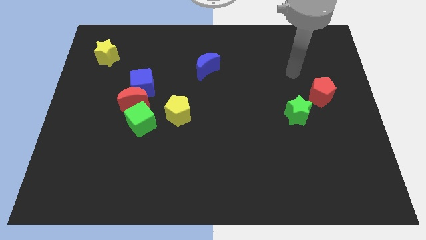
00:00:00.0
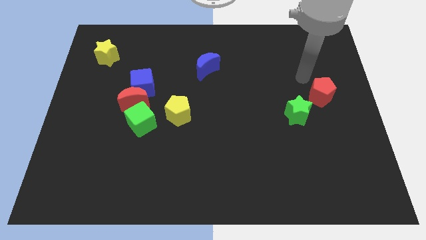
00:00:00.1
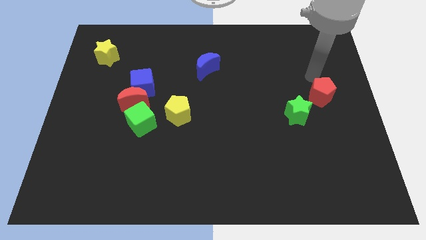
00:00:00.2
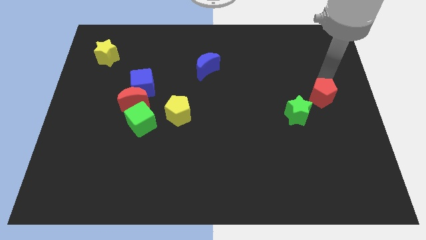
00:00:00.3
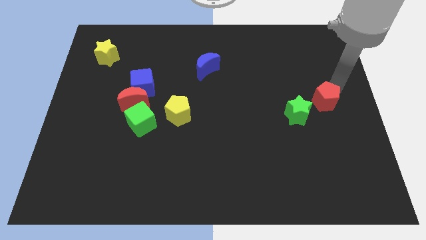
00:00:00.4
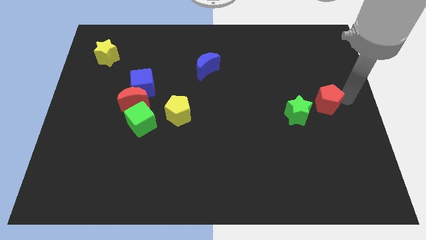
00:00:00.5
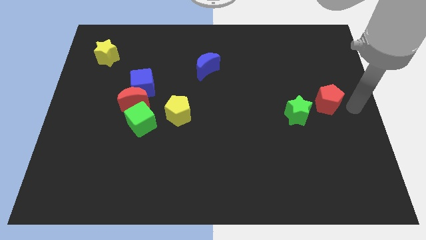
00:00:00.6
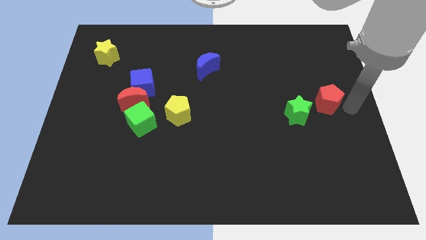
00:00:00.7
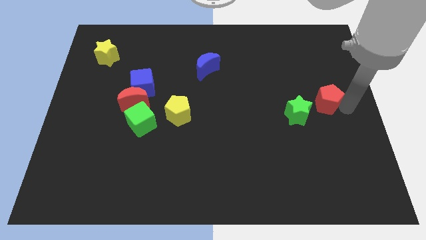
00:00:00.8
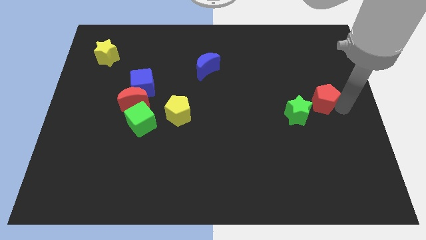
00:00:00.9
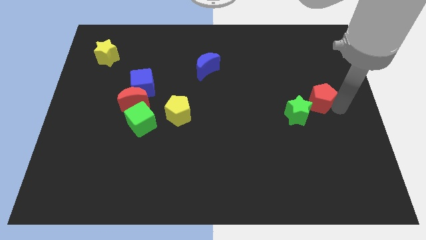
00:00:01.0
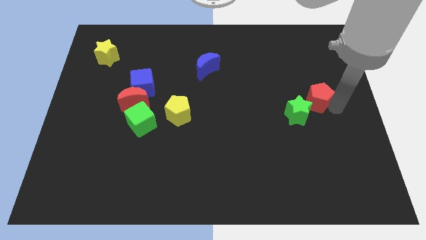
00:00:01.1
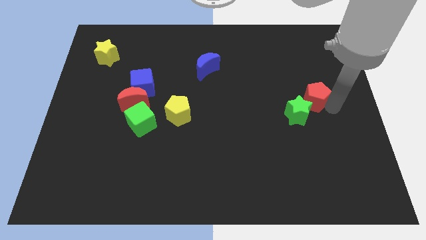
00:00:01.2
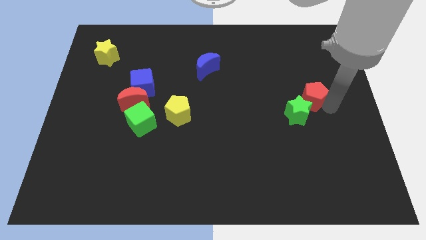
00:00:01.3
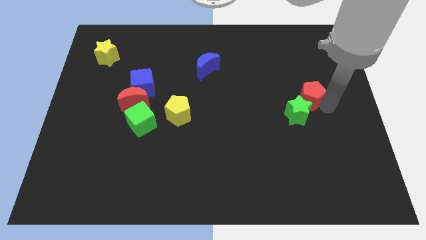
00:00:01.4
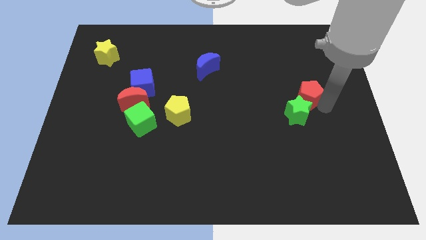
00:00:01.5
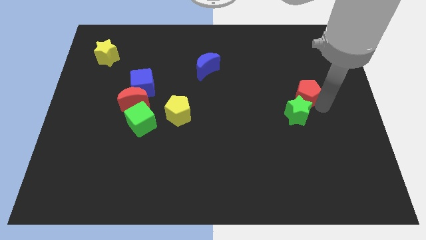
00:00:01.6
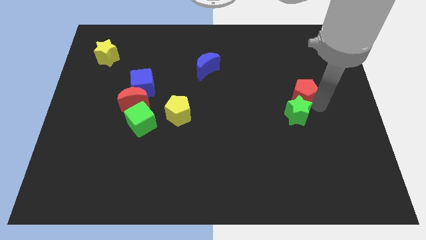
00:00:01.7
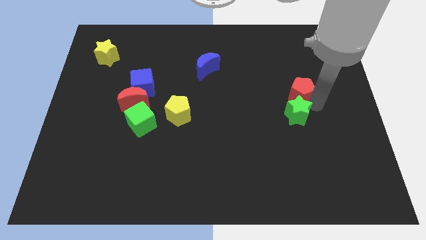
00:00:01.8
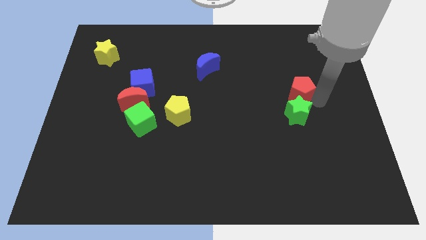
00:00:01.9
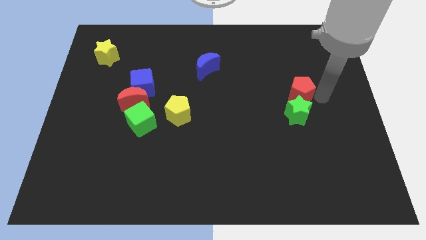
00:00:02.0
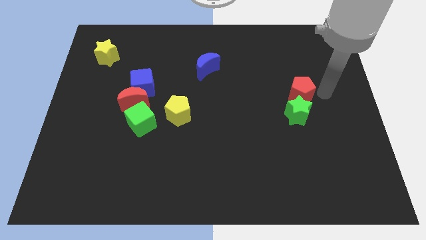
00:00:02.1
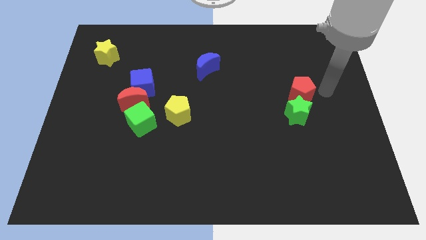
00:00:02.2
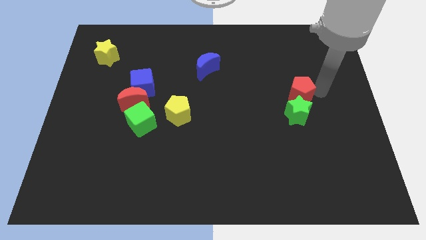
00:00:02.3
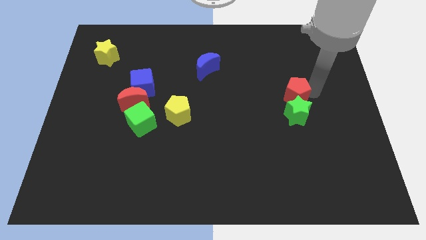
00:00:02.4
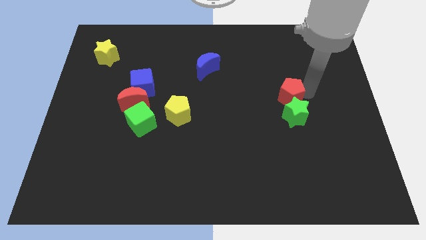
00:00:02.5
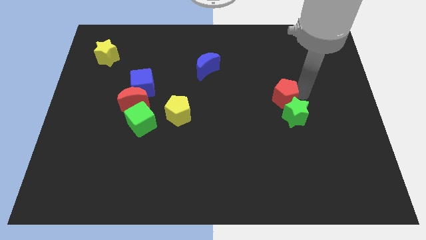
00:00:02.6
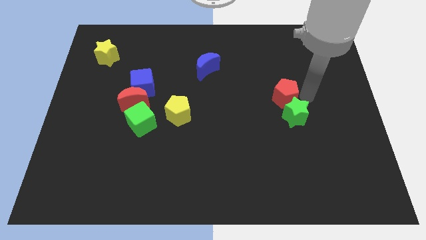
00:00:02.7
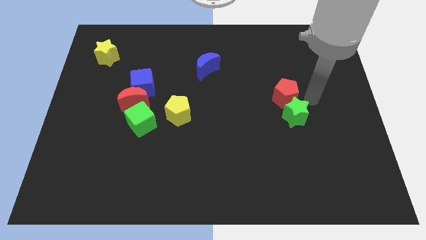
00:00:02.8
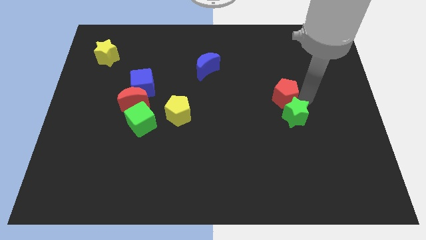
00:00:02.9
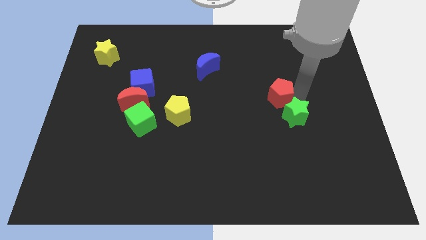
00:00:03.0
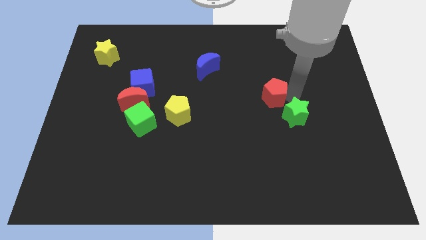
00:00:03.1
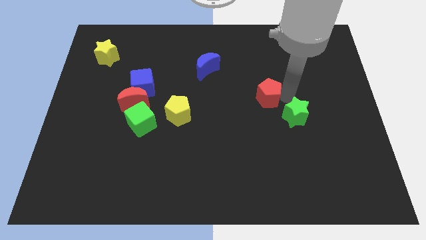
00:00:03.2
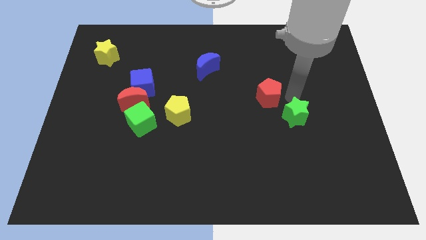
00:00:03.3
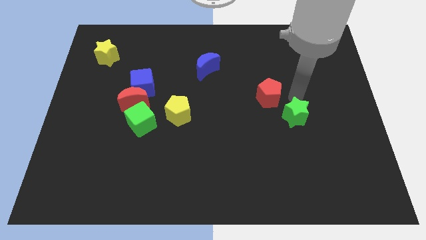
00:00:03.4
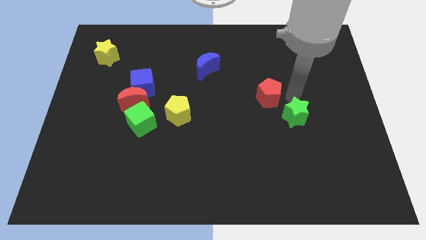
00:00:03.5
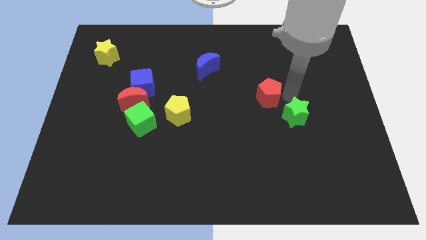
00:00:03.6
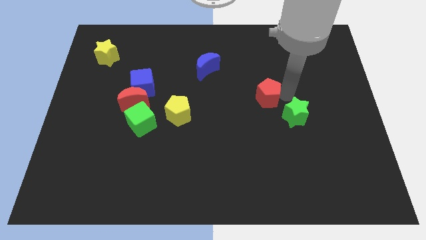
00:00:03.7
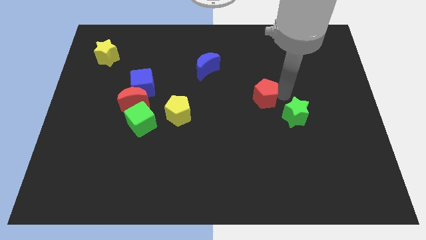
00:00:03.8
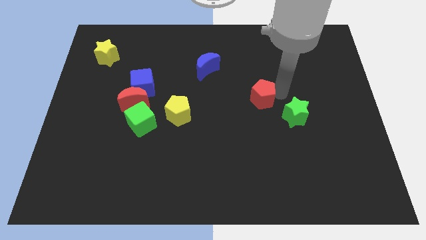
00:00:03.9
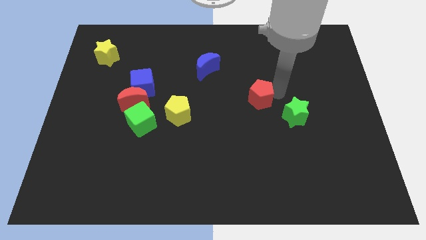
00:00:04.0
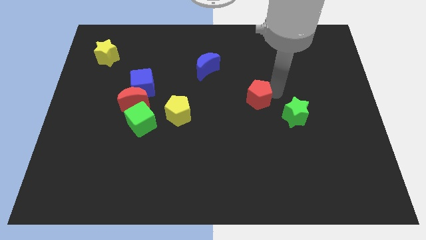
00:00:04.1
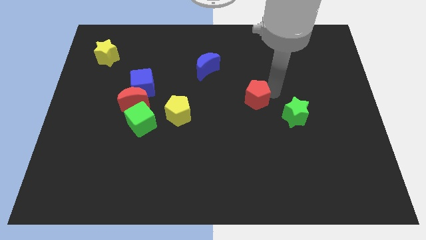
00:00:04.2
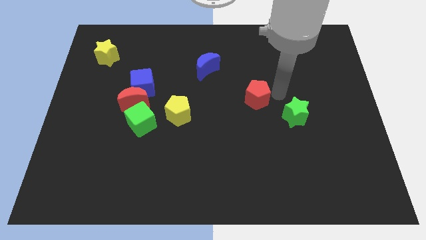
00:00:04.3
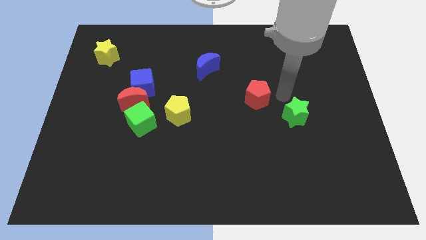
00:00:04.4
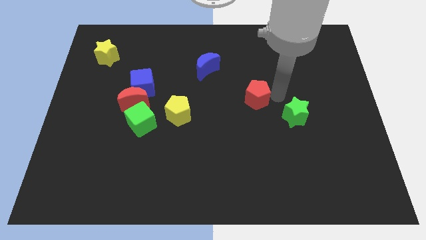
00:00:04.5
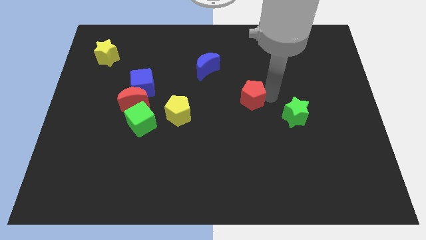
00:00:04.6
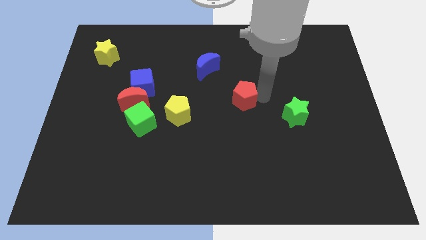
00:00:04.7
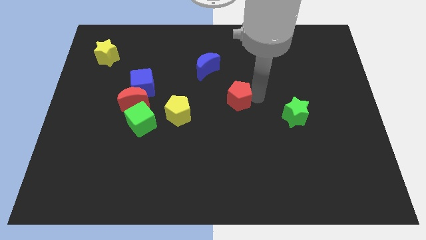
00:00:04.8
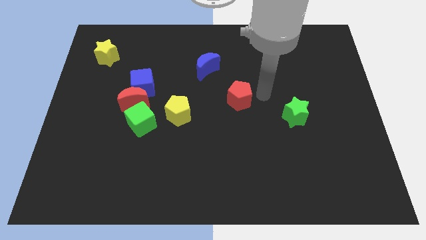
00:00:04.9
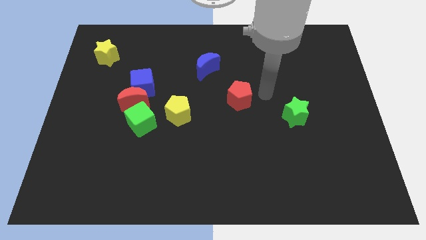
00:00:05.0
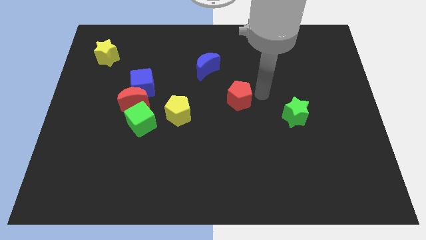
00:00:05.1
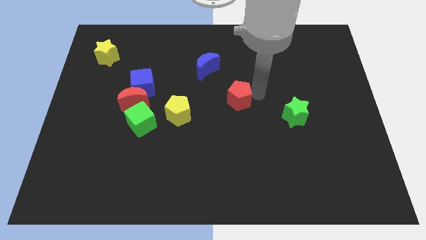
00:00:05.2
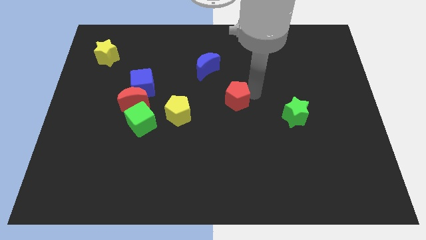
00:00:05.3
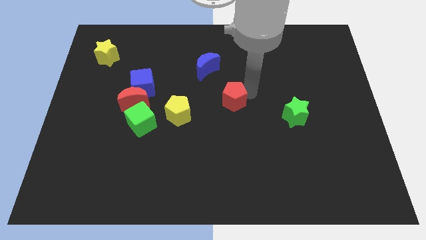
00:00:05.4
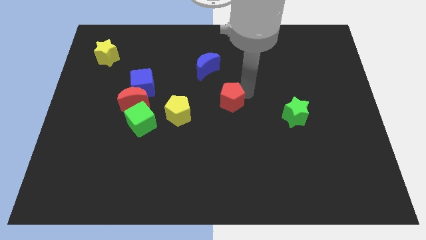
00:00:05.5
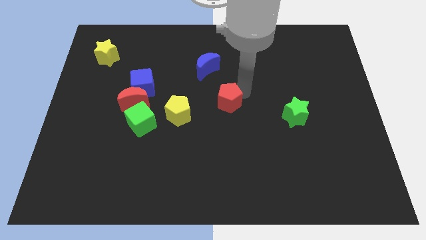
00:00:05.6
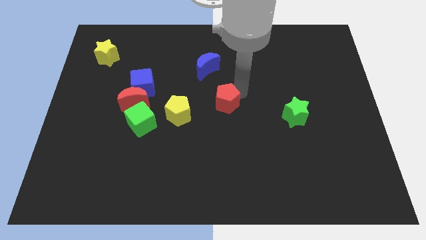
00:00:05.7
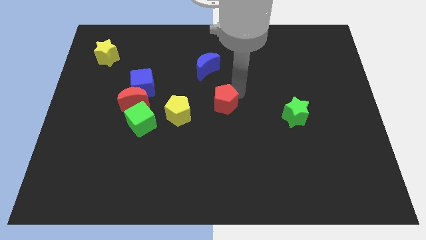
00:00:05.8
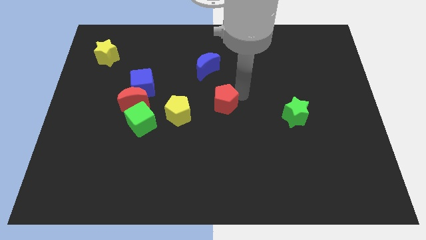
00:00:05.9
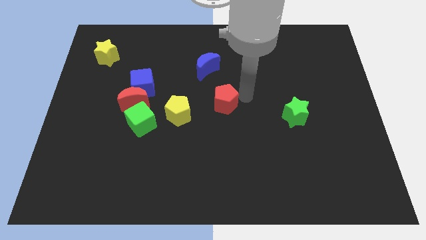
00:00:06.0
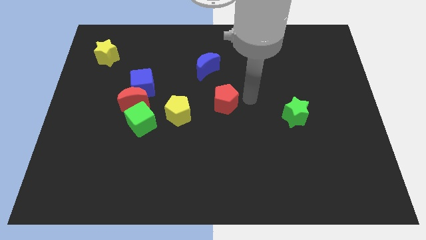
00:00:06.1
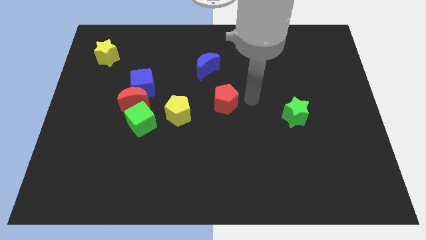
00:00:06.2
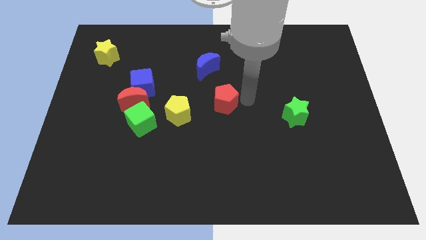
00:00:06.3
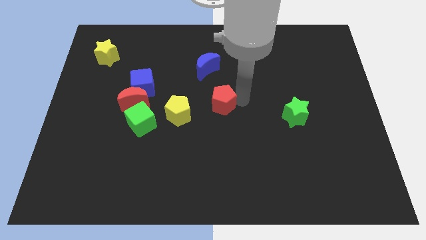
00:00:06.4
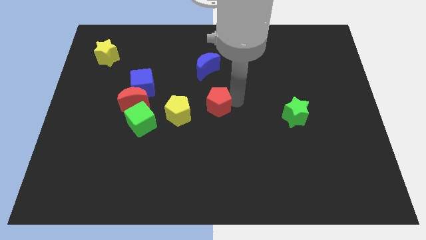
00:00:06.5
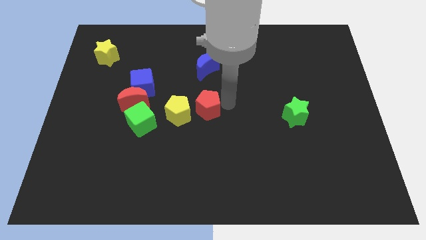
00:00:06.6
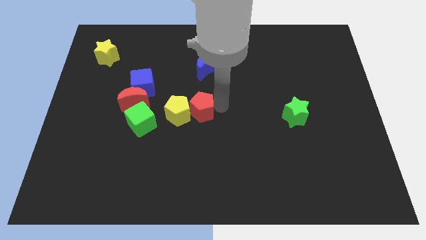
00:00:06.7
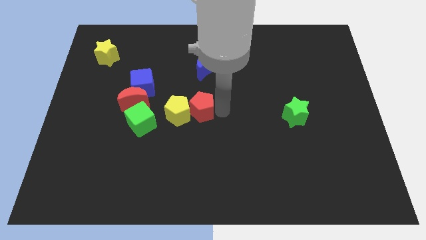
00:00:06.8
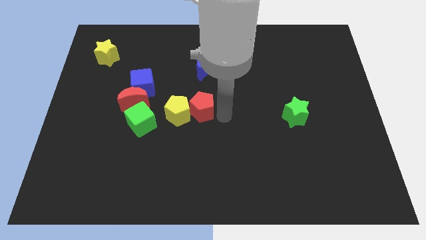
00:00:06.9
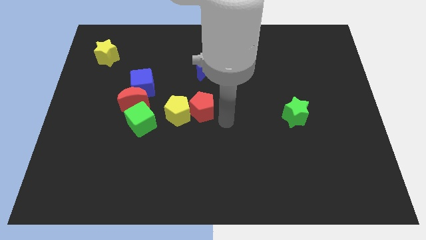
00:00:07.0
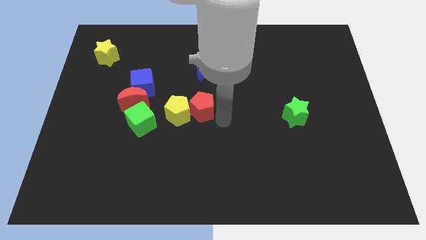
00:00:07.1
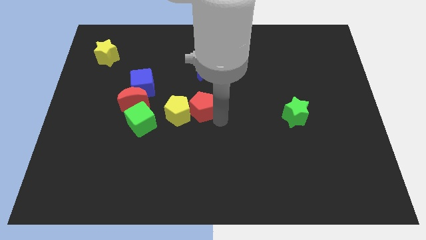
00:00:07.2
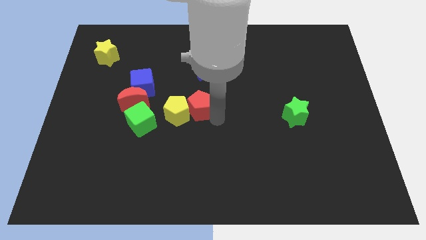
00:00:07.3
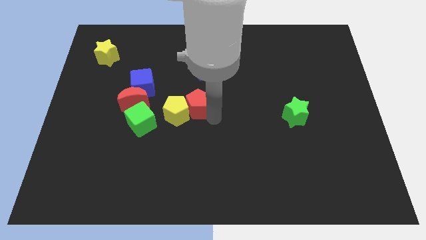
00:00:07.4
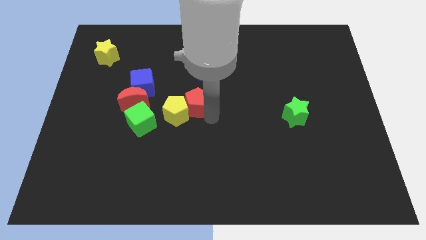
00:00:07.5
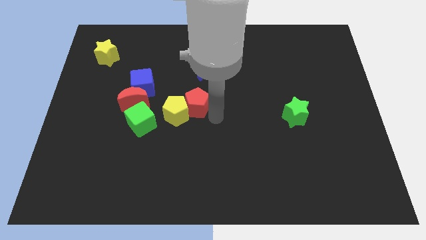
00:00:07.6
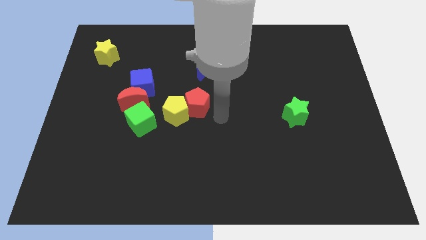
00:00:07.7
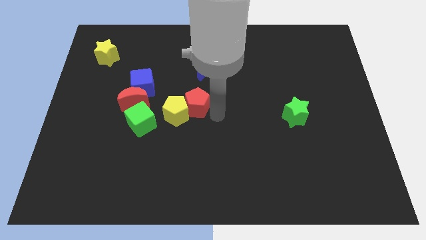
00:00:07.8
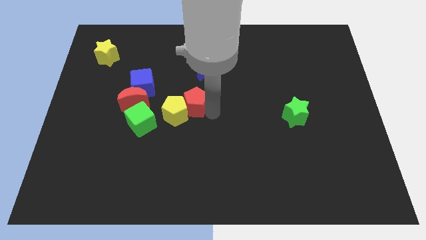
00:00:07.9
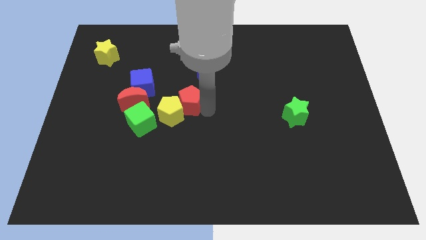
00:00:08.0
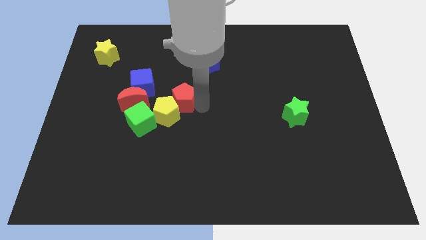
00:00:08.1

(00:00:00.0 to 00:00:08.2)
move the red pentagon diagonally down and to the right of the blue cube
